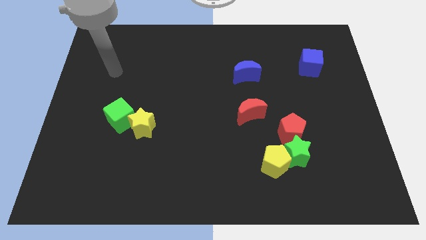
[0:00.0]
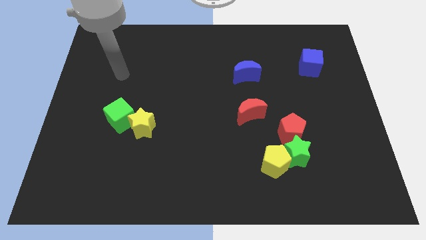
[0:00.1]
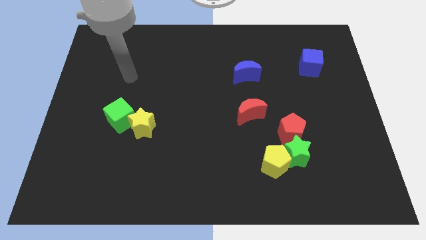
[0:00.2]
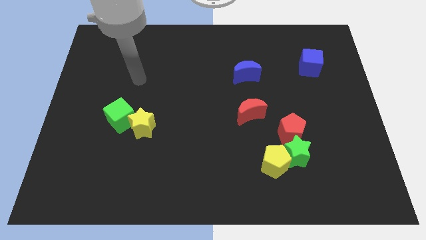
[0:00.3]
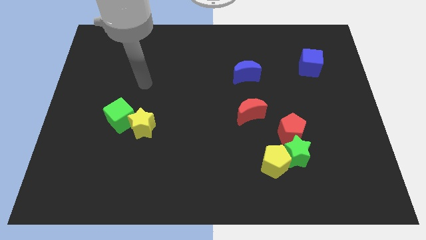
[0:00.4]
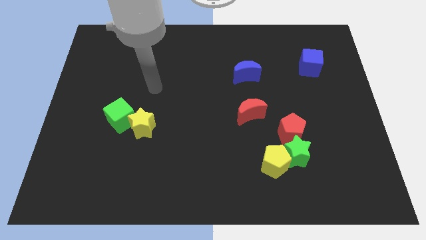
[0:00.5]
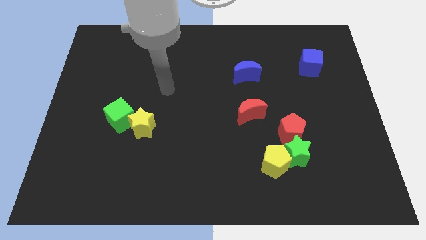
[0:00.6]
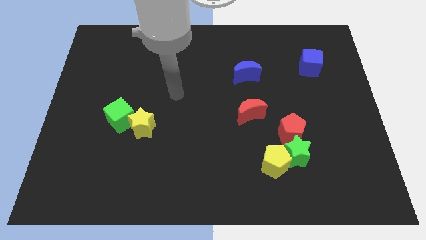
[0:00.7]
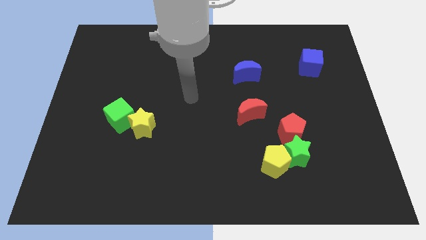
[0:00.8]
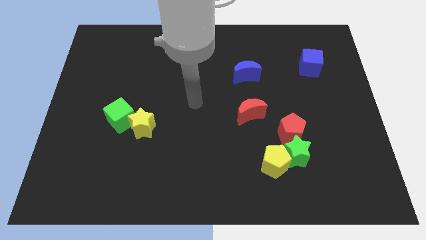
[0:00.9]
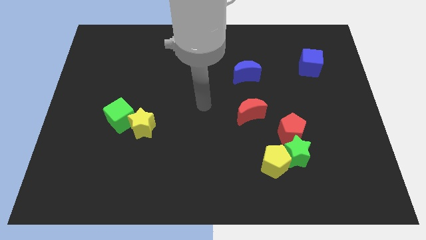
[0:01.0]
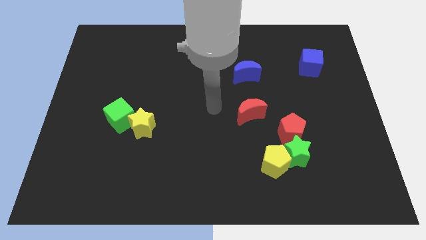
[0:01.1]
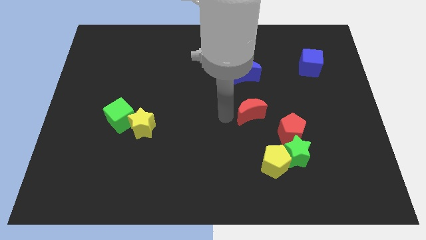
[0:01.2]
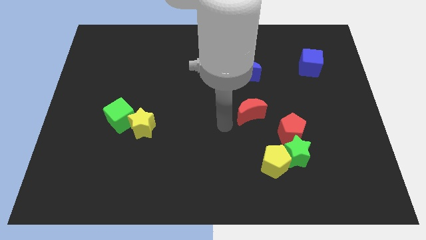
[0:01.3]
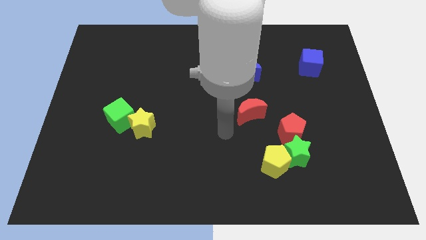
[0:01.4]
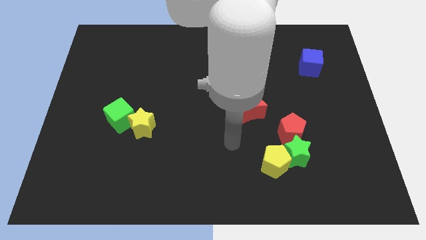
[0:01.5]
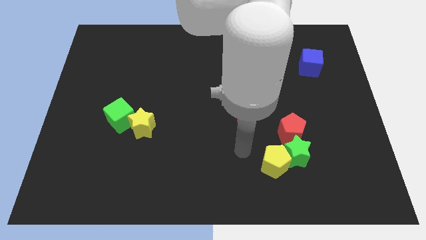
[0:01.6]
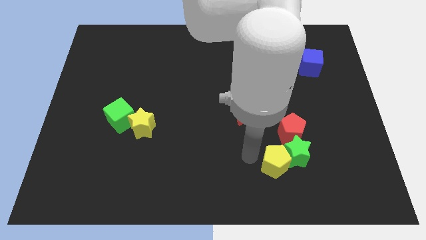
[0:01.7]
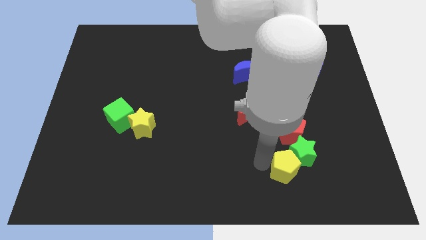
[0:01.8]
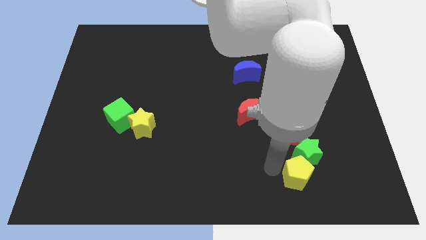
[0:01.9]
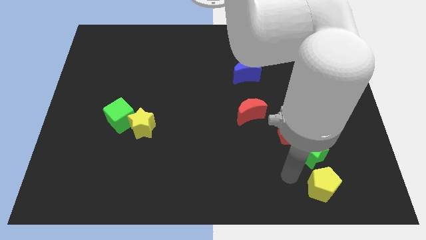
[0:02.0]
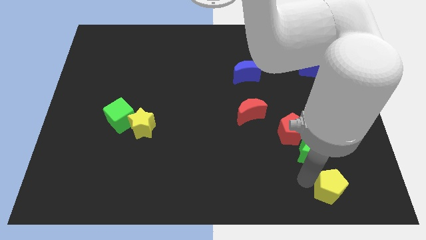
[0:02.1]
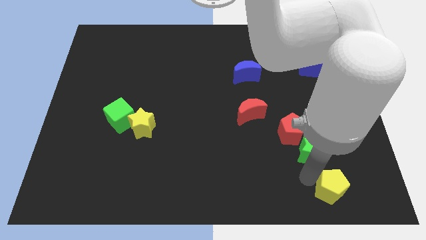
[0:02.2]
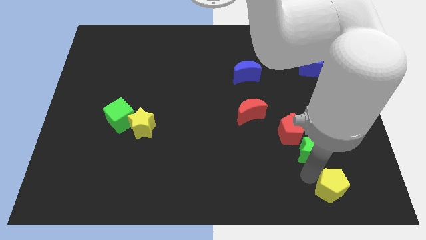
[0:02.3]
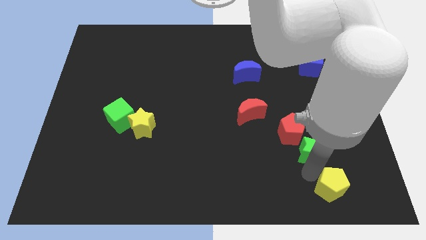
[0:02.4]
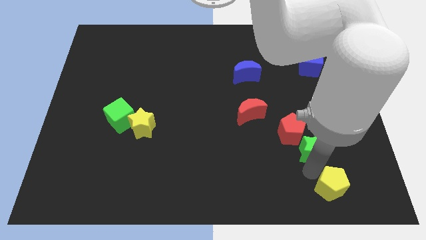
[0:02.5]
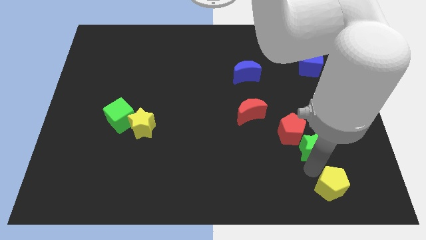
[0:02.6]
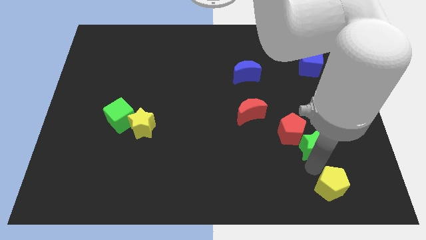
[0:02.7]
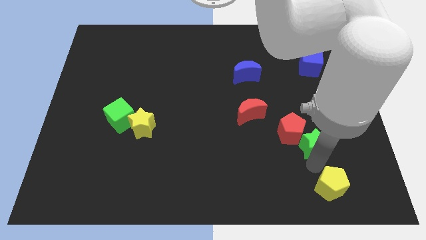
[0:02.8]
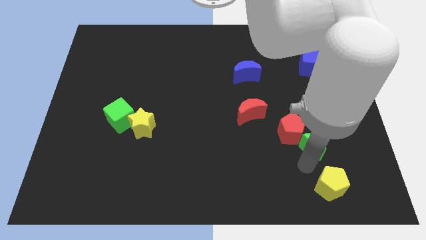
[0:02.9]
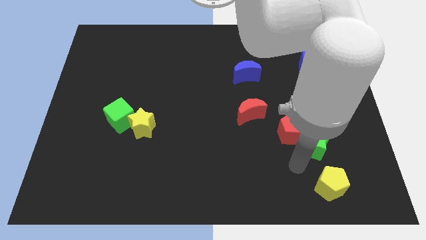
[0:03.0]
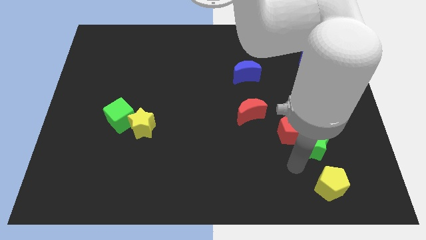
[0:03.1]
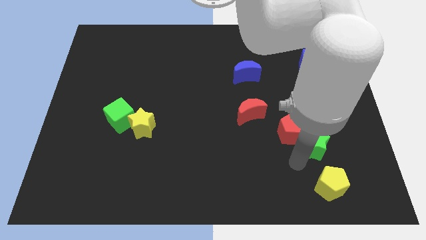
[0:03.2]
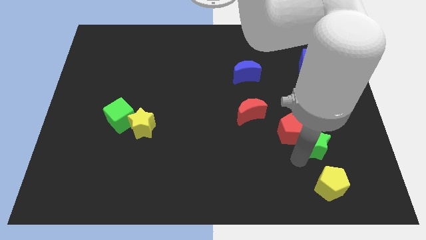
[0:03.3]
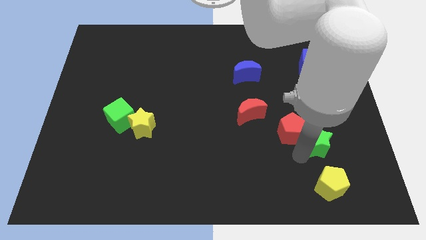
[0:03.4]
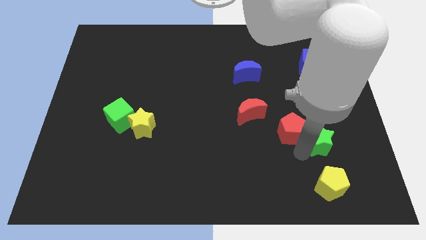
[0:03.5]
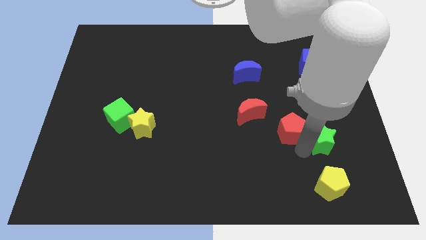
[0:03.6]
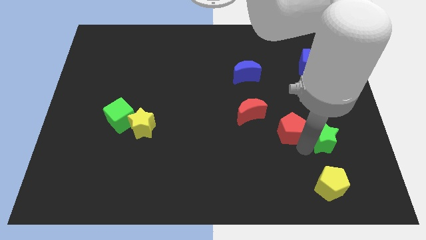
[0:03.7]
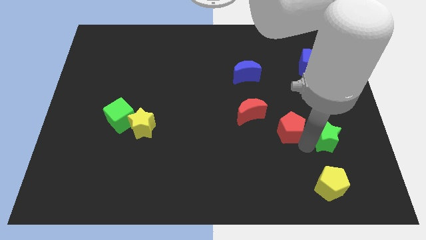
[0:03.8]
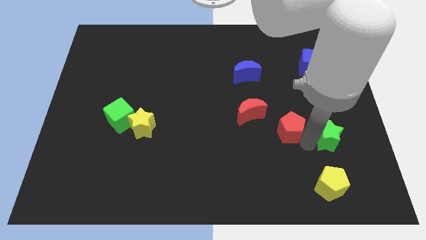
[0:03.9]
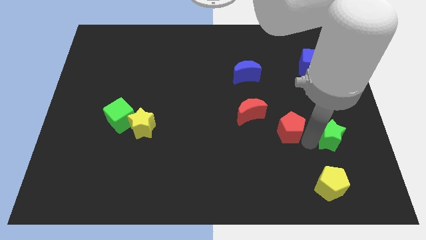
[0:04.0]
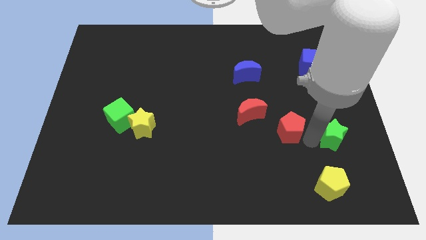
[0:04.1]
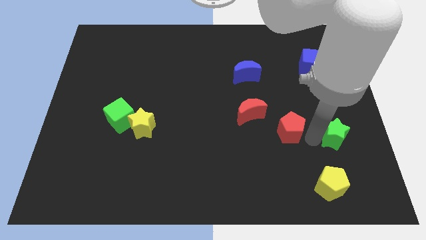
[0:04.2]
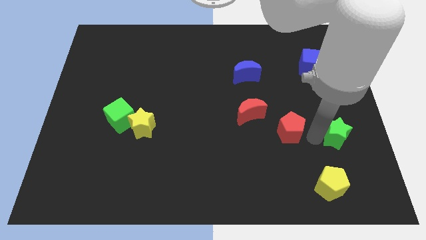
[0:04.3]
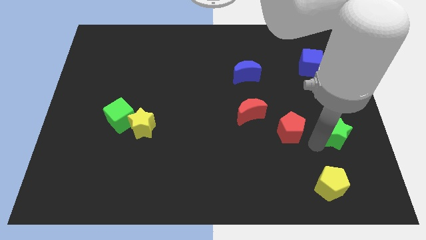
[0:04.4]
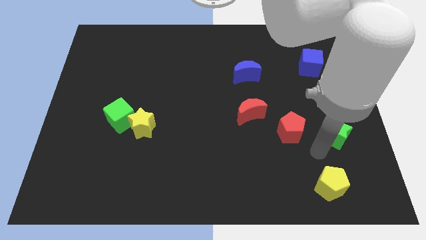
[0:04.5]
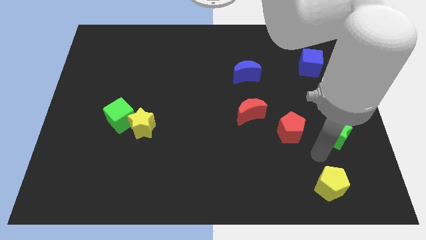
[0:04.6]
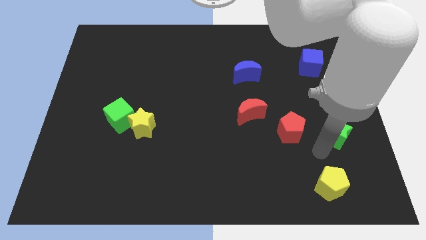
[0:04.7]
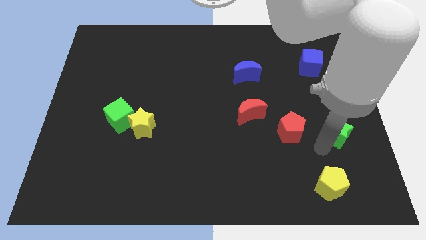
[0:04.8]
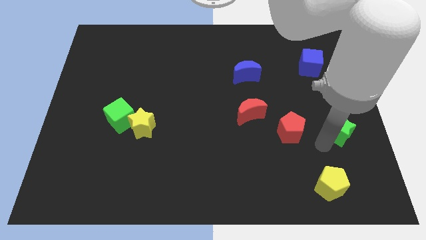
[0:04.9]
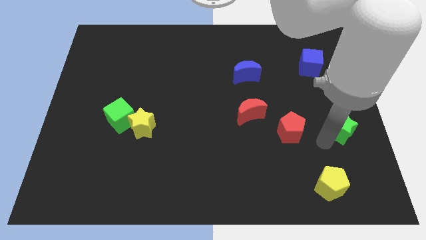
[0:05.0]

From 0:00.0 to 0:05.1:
slide the green star to the center right

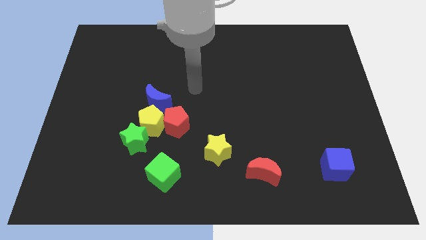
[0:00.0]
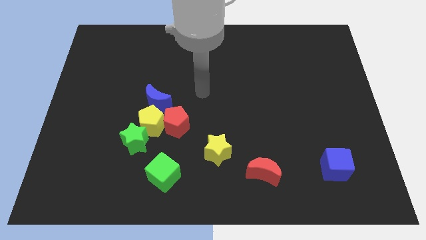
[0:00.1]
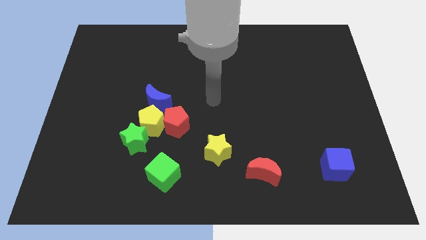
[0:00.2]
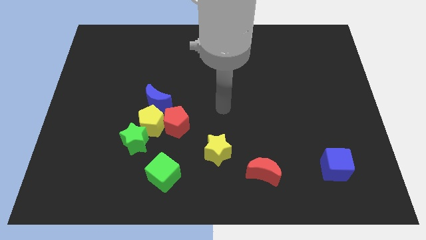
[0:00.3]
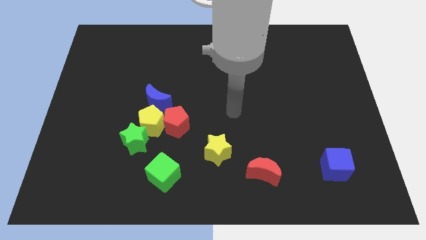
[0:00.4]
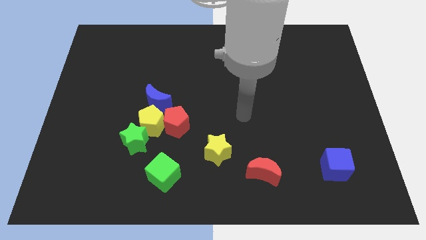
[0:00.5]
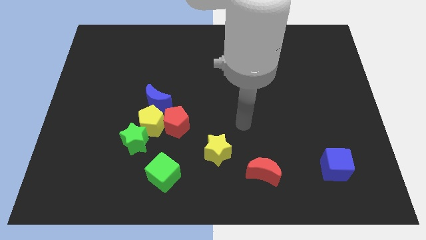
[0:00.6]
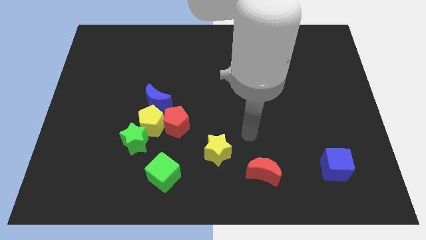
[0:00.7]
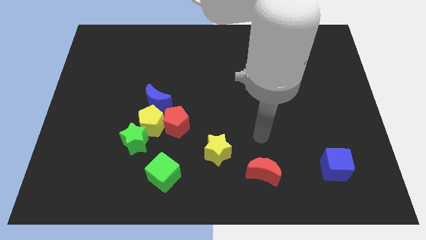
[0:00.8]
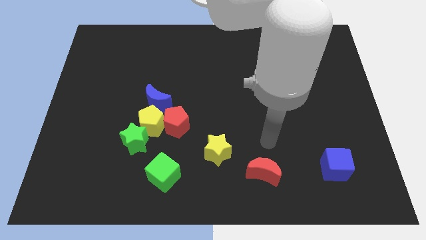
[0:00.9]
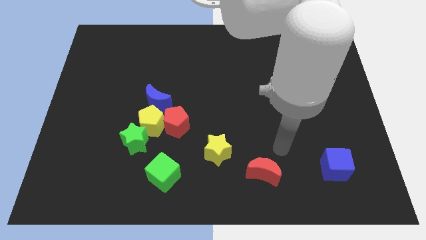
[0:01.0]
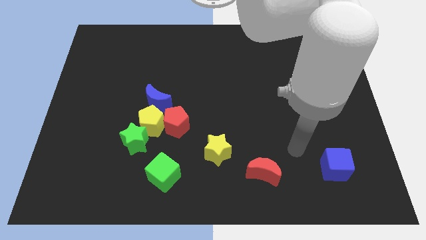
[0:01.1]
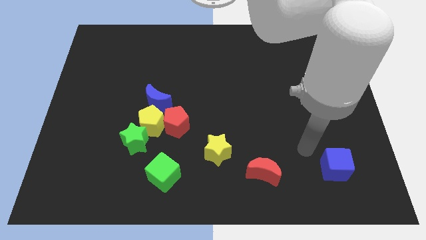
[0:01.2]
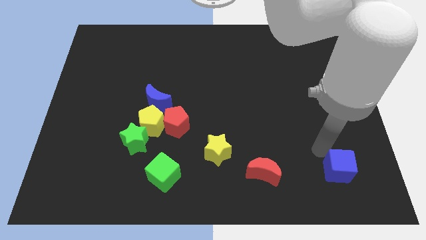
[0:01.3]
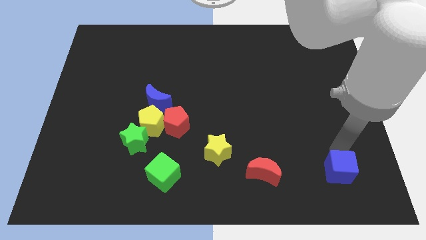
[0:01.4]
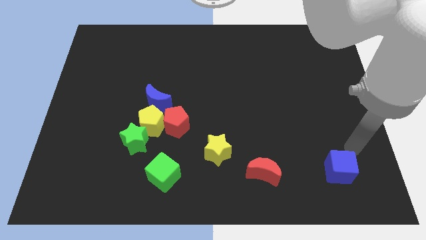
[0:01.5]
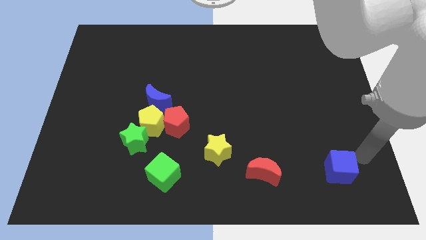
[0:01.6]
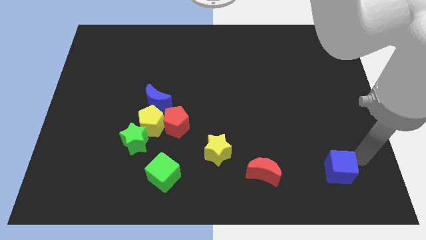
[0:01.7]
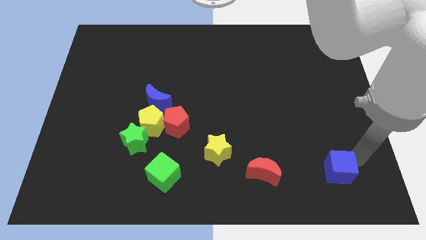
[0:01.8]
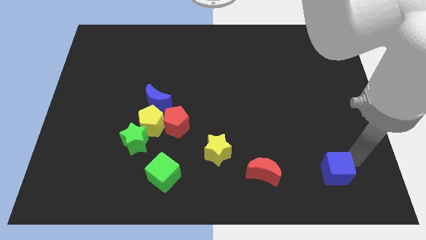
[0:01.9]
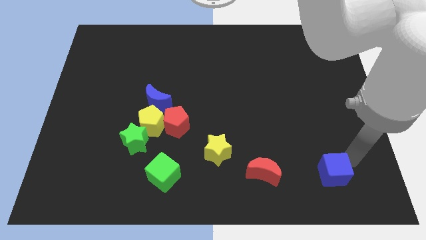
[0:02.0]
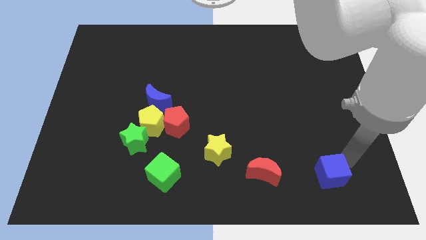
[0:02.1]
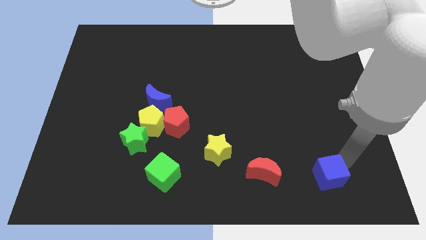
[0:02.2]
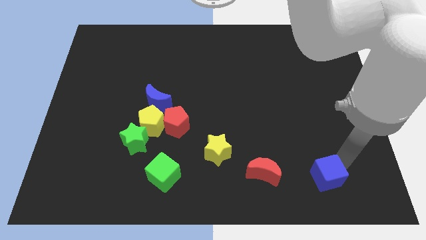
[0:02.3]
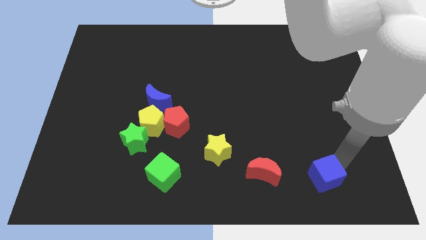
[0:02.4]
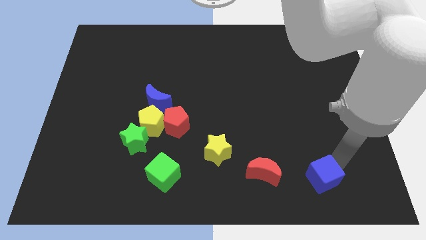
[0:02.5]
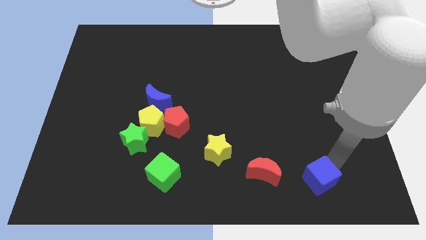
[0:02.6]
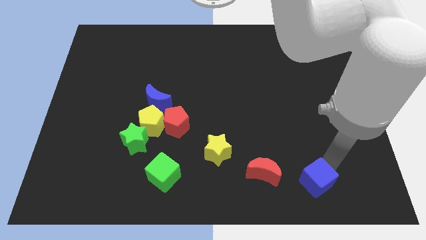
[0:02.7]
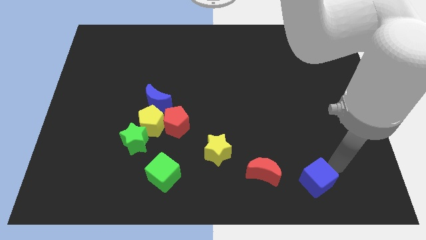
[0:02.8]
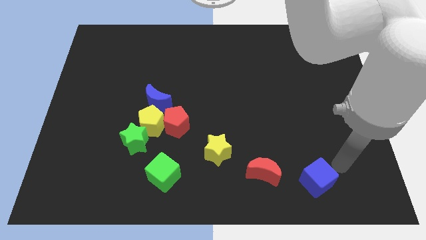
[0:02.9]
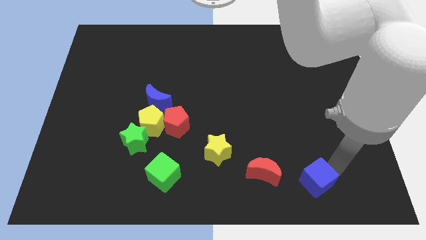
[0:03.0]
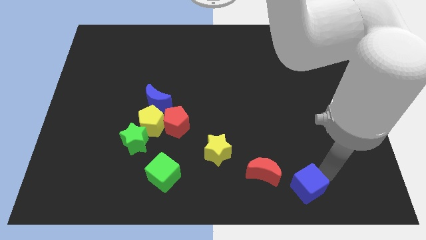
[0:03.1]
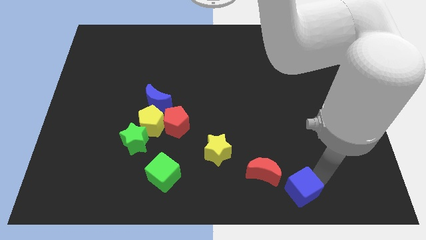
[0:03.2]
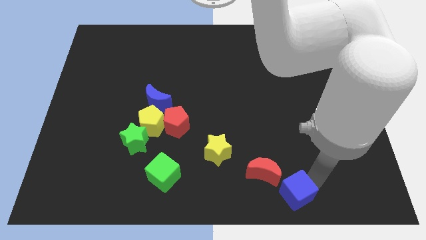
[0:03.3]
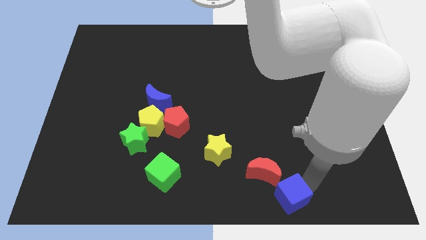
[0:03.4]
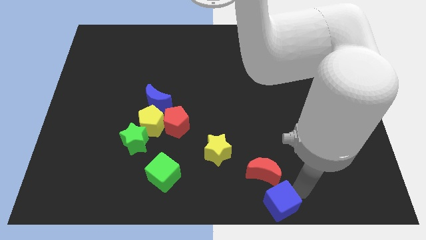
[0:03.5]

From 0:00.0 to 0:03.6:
slide the blue cube to the bottom side
